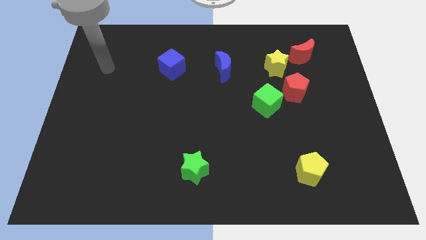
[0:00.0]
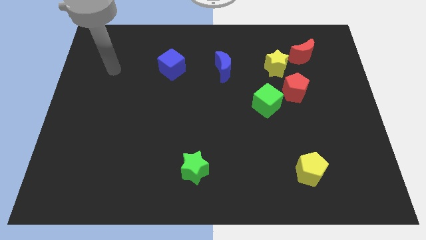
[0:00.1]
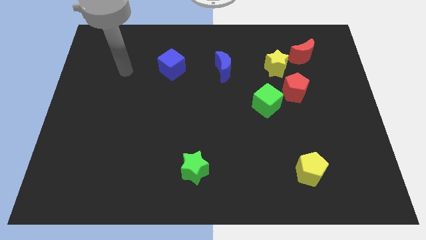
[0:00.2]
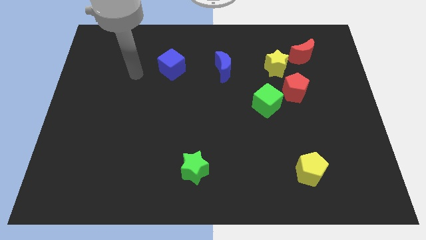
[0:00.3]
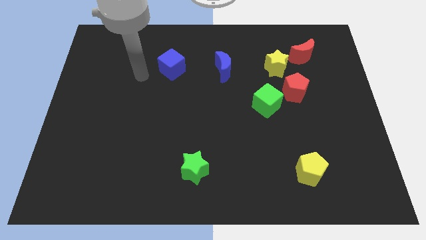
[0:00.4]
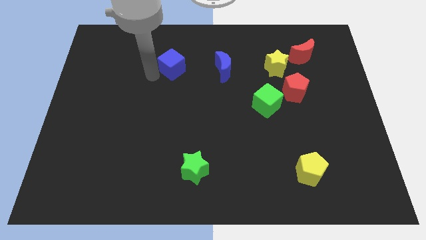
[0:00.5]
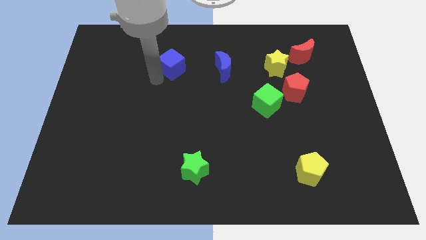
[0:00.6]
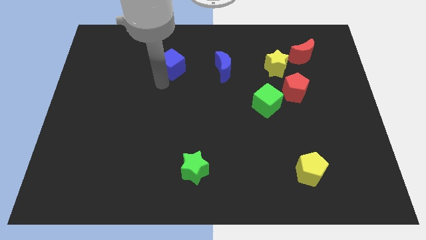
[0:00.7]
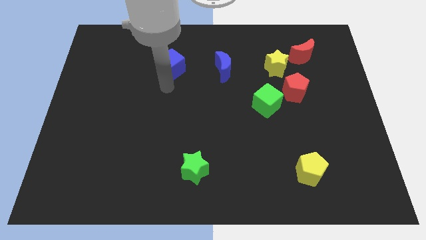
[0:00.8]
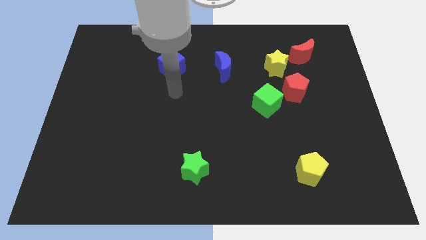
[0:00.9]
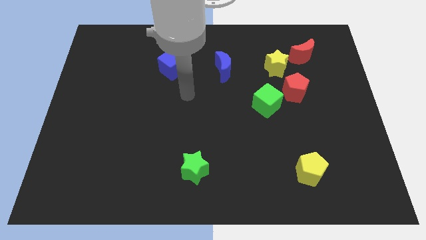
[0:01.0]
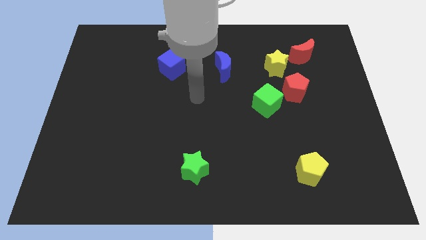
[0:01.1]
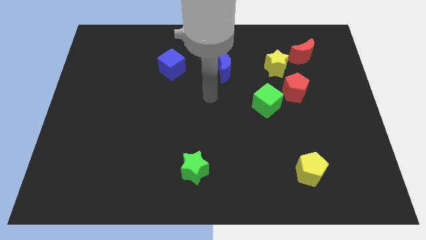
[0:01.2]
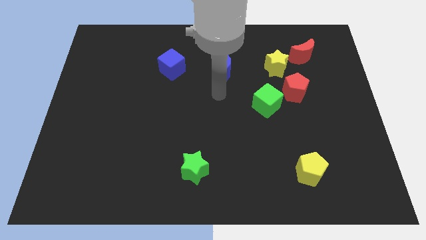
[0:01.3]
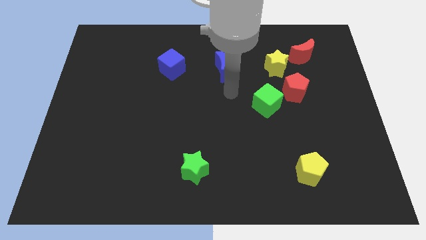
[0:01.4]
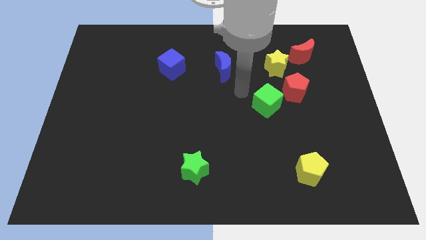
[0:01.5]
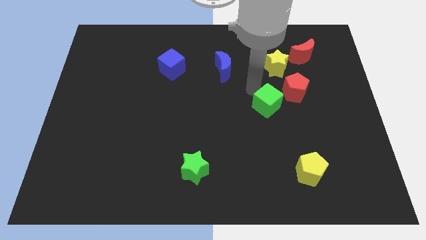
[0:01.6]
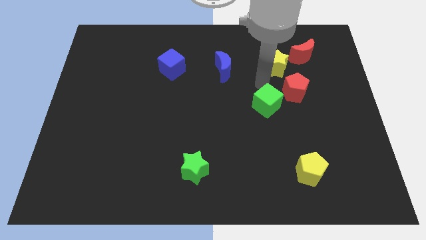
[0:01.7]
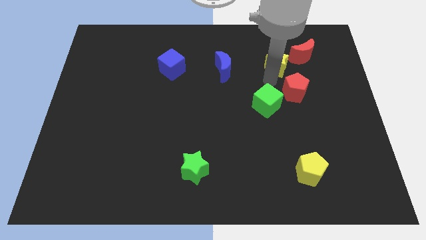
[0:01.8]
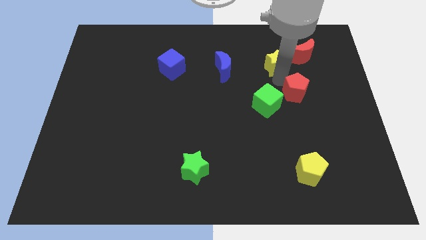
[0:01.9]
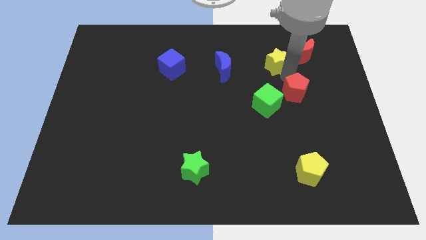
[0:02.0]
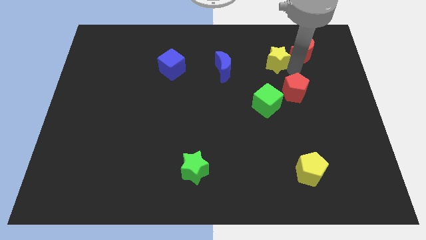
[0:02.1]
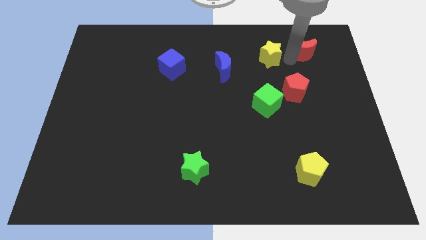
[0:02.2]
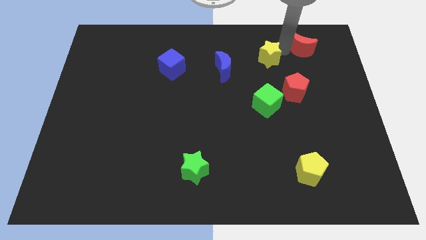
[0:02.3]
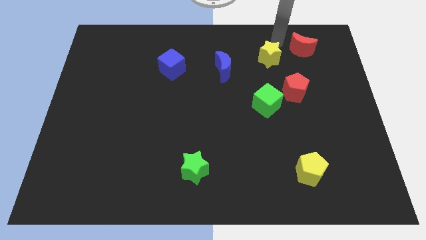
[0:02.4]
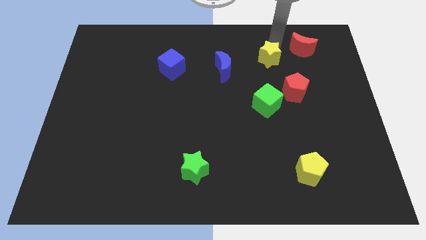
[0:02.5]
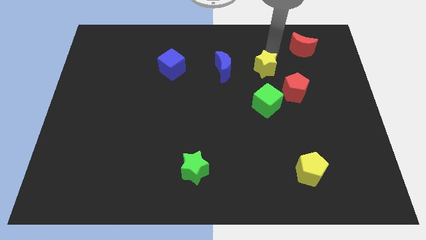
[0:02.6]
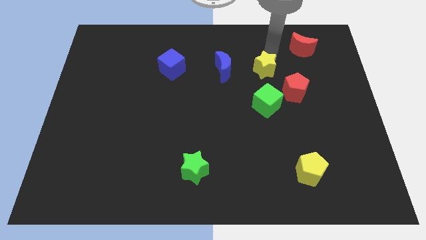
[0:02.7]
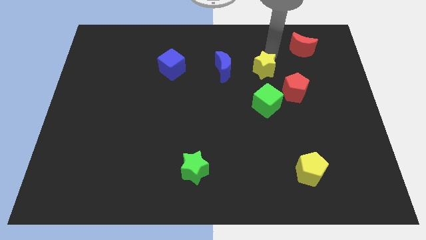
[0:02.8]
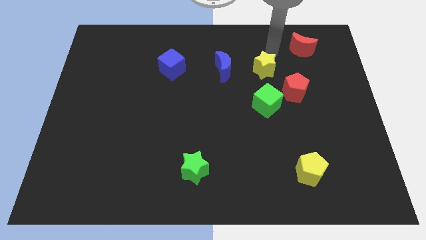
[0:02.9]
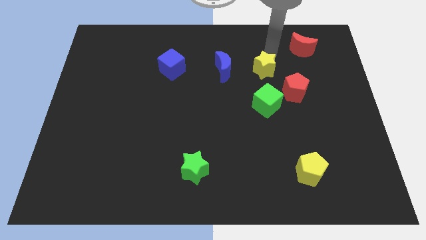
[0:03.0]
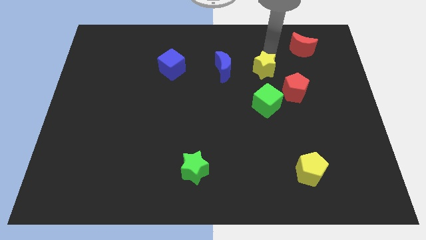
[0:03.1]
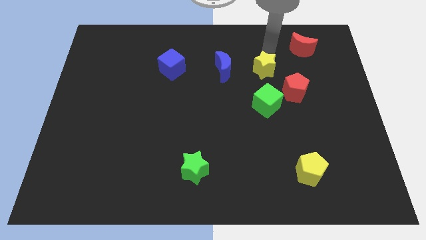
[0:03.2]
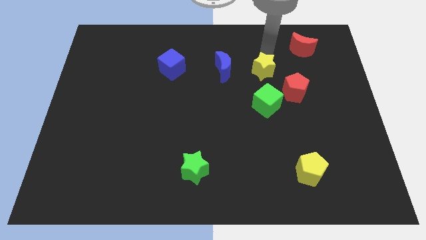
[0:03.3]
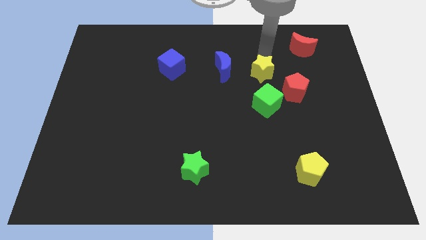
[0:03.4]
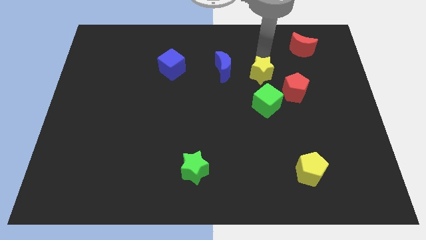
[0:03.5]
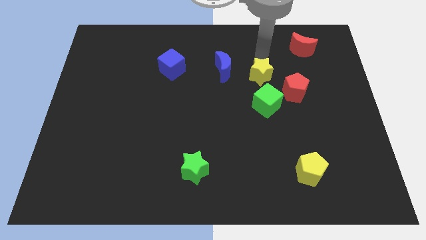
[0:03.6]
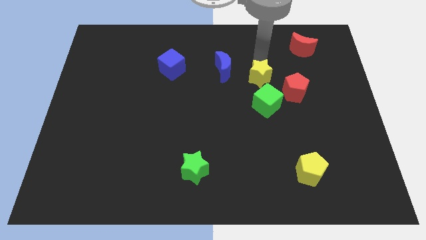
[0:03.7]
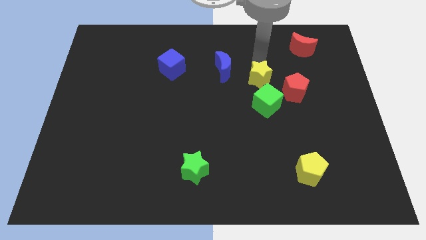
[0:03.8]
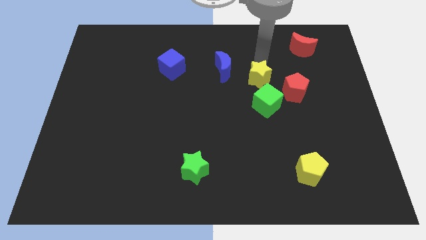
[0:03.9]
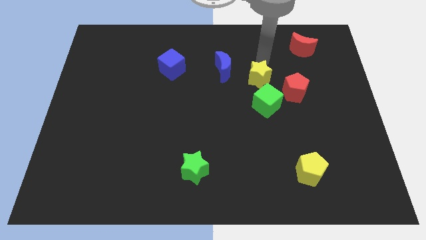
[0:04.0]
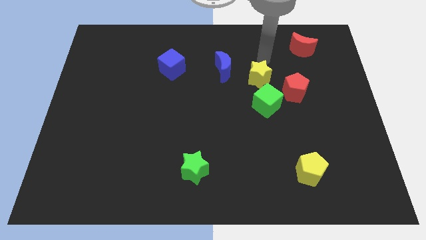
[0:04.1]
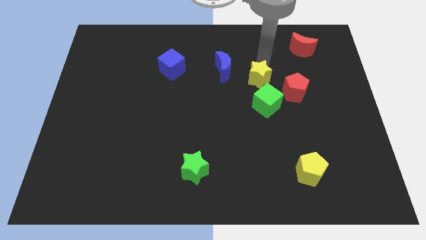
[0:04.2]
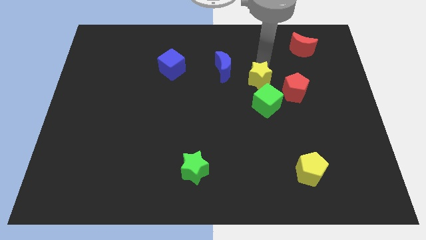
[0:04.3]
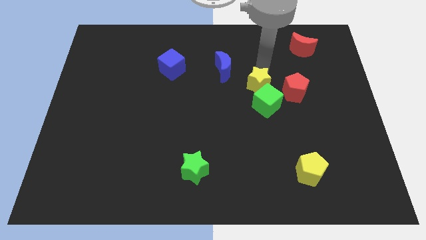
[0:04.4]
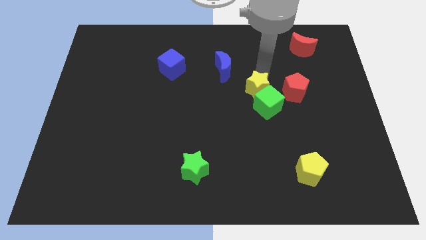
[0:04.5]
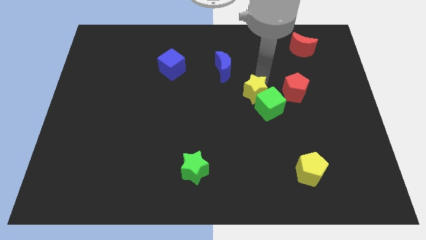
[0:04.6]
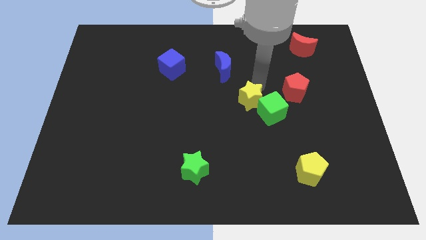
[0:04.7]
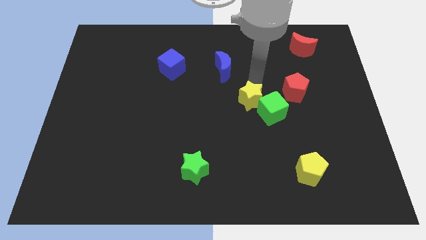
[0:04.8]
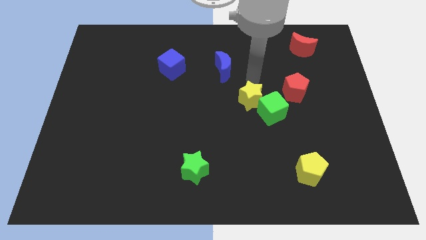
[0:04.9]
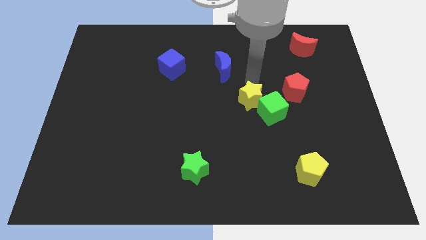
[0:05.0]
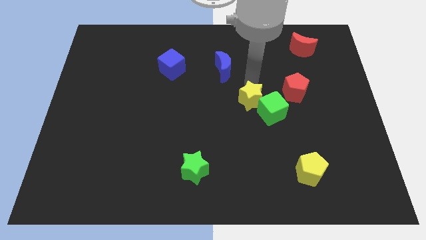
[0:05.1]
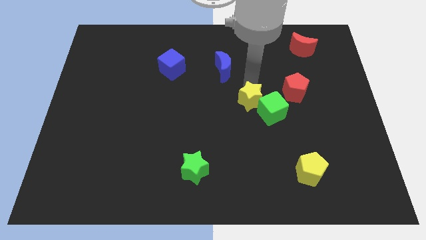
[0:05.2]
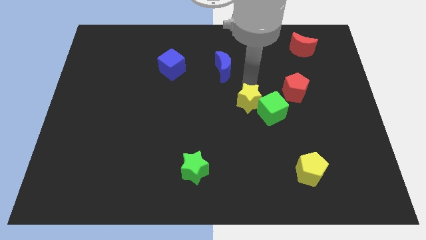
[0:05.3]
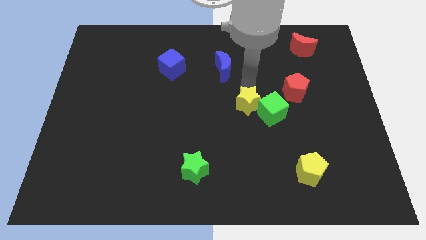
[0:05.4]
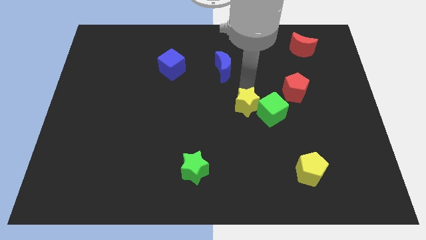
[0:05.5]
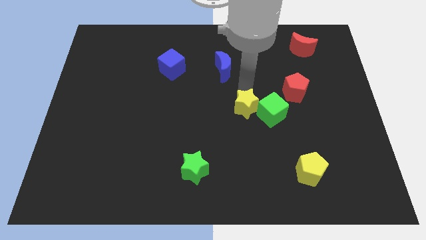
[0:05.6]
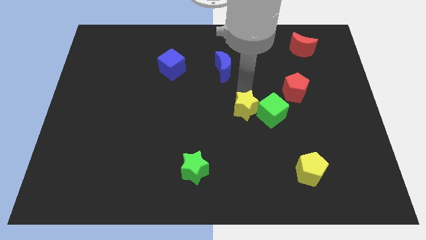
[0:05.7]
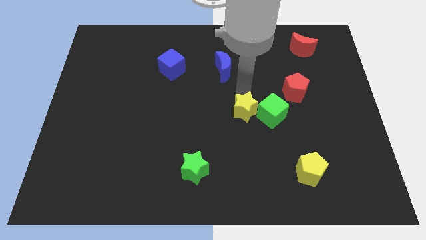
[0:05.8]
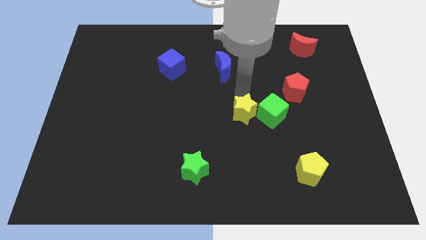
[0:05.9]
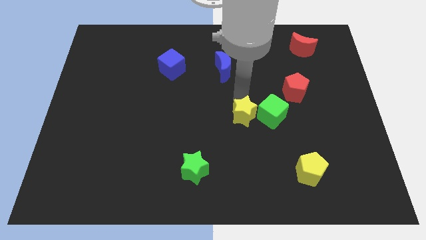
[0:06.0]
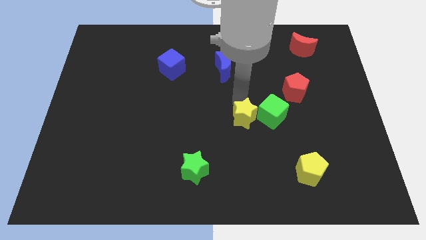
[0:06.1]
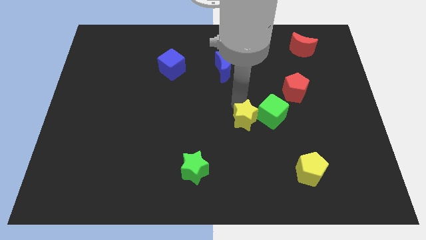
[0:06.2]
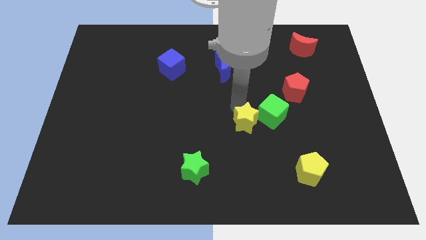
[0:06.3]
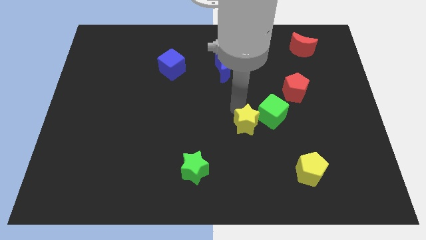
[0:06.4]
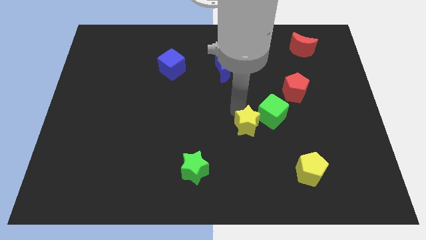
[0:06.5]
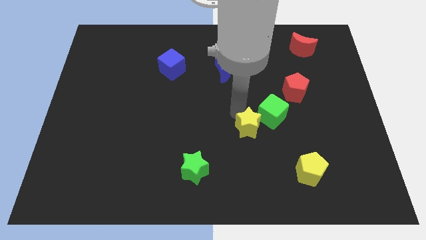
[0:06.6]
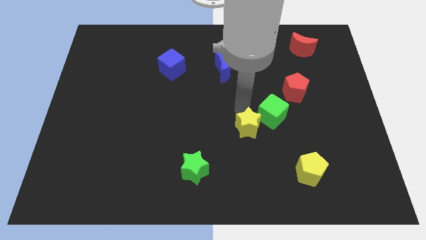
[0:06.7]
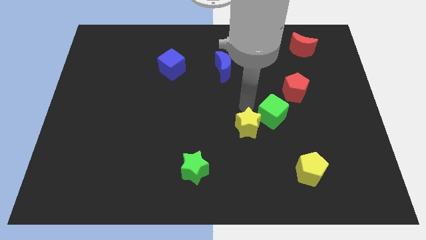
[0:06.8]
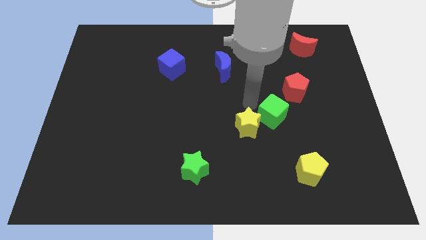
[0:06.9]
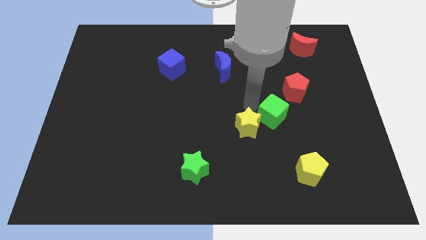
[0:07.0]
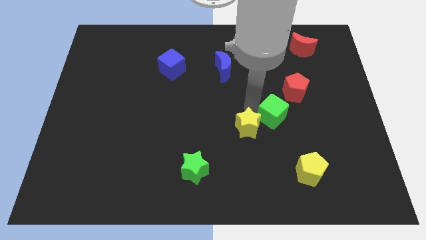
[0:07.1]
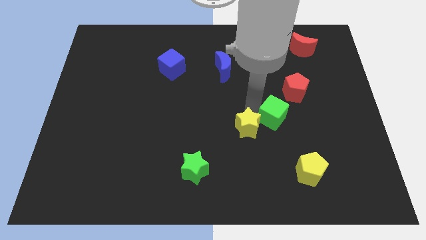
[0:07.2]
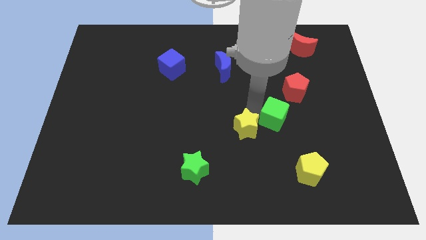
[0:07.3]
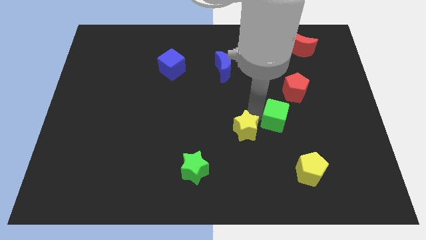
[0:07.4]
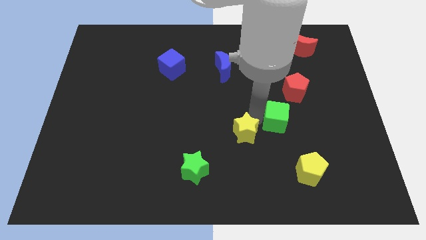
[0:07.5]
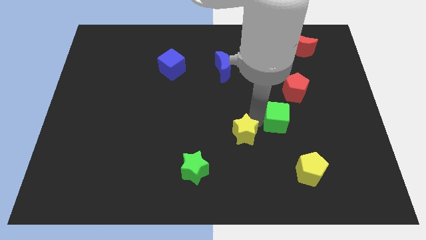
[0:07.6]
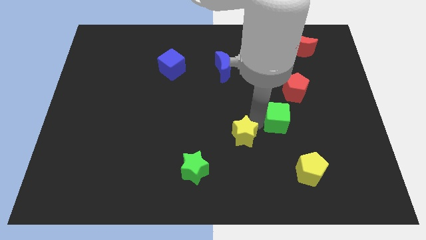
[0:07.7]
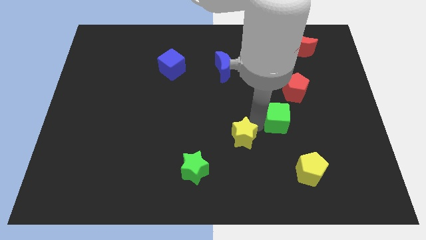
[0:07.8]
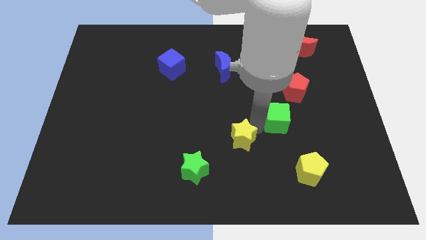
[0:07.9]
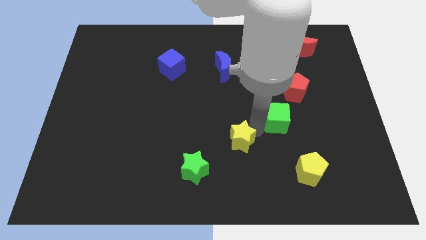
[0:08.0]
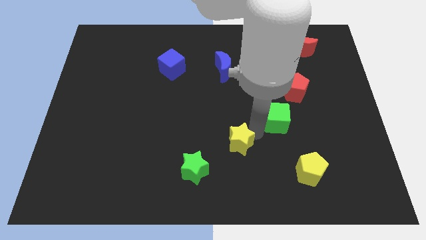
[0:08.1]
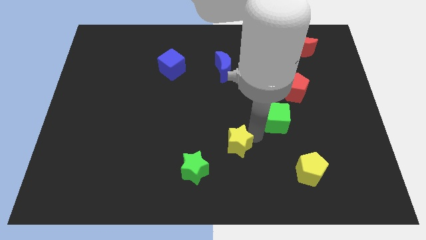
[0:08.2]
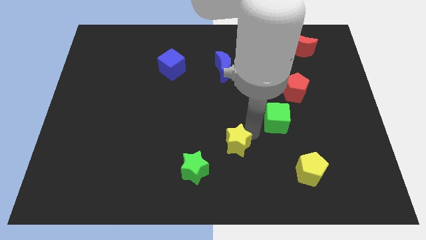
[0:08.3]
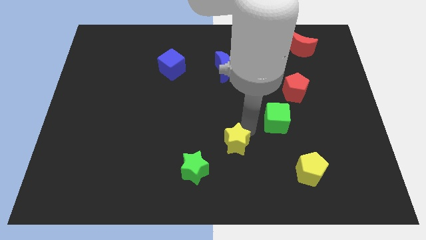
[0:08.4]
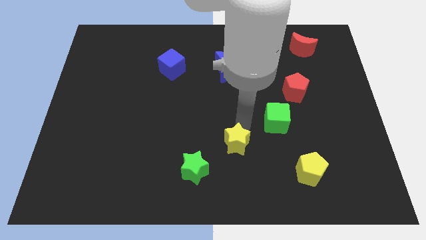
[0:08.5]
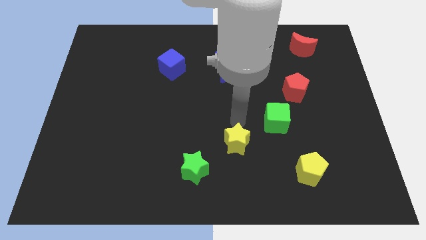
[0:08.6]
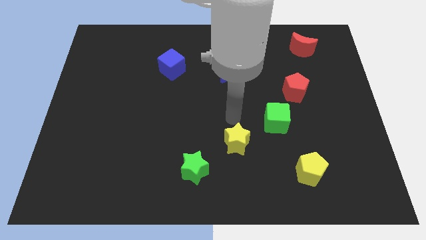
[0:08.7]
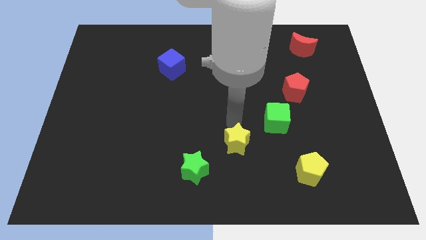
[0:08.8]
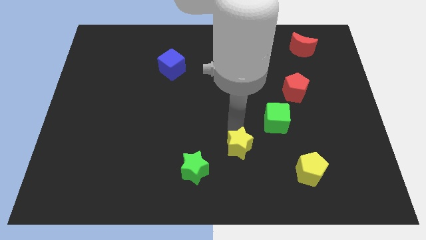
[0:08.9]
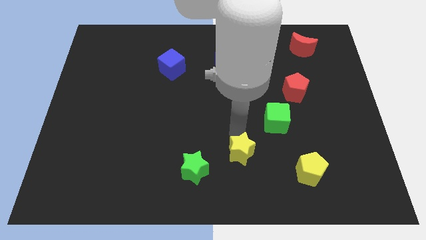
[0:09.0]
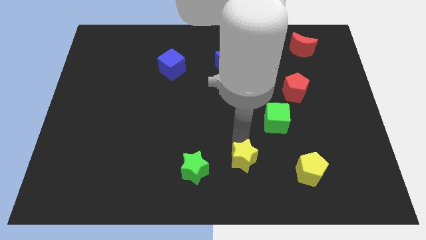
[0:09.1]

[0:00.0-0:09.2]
push the yellow star to the bottom
